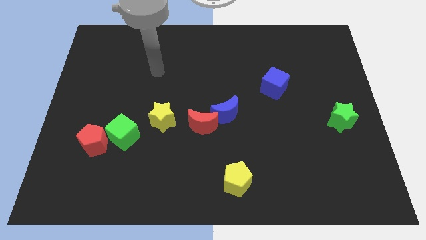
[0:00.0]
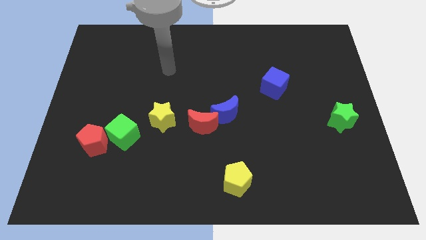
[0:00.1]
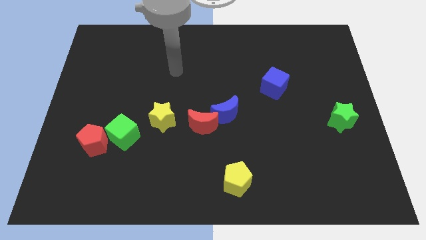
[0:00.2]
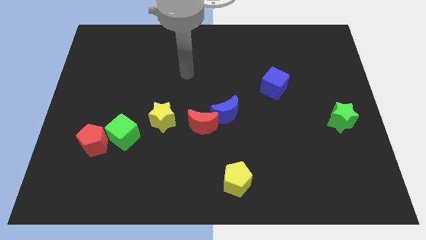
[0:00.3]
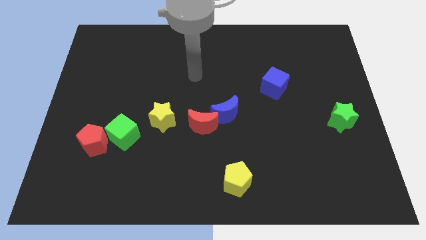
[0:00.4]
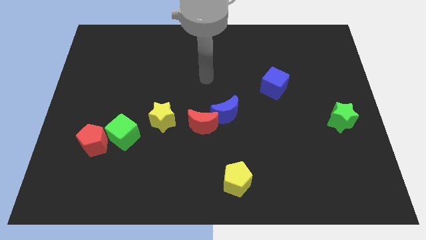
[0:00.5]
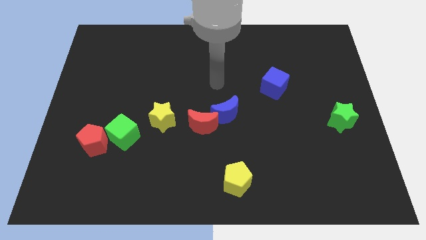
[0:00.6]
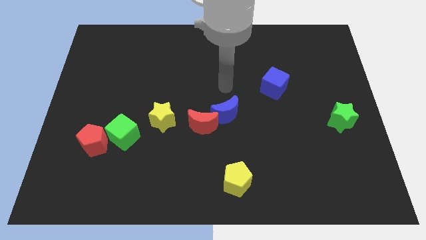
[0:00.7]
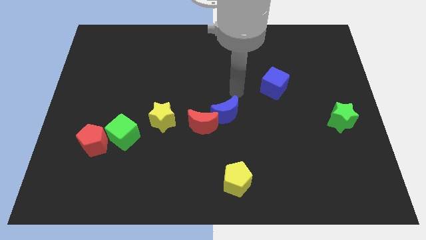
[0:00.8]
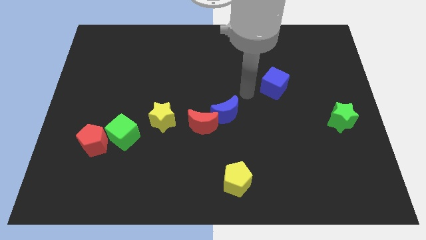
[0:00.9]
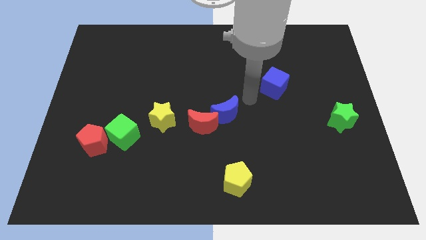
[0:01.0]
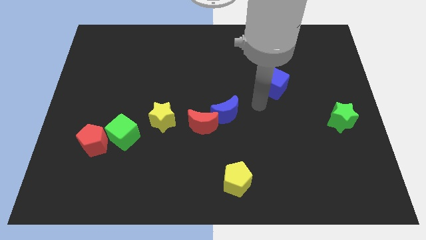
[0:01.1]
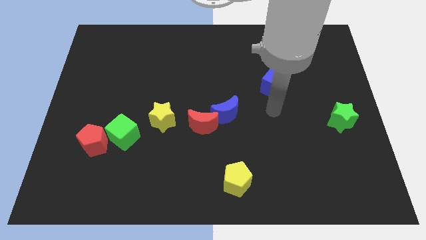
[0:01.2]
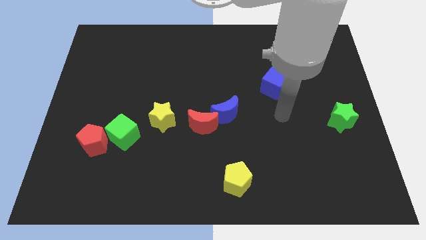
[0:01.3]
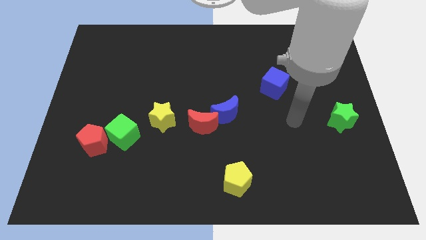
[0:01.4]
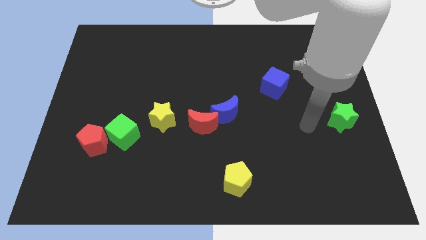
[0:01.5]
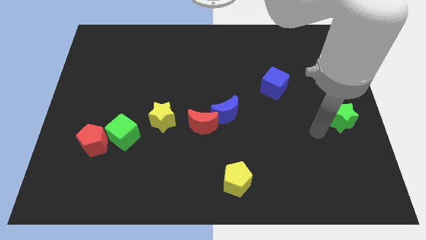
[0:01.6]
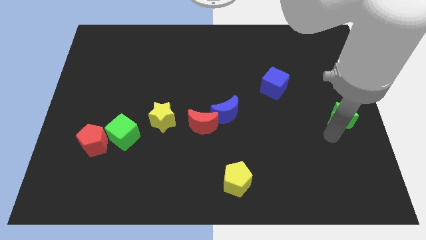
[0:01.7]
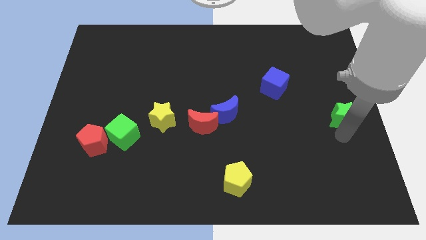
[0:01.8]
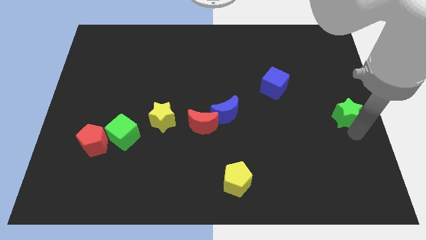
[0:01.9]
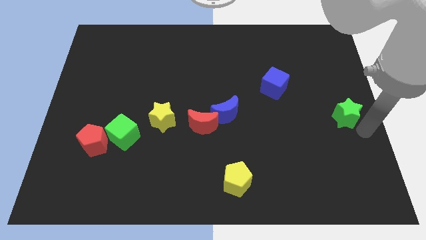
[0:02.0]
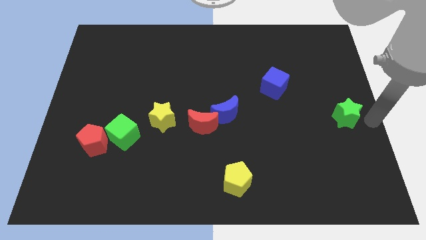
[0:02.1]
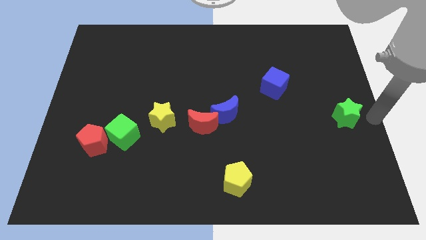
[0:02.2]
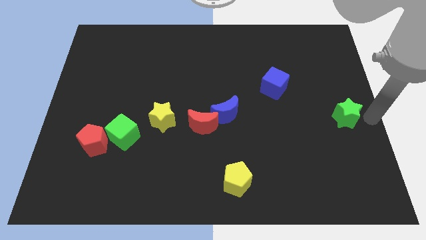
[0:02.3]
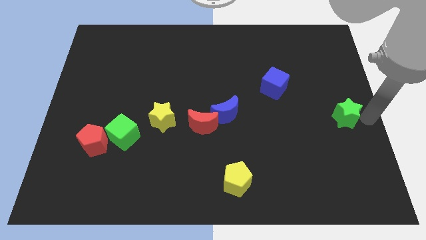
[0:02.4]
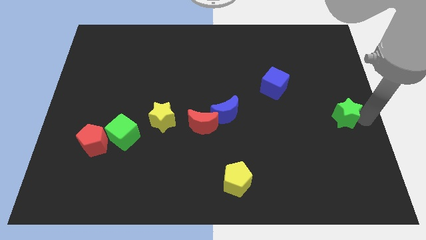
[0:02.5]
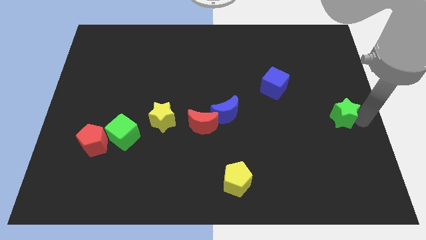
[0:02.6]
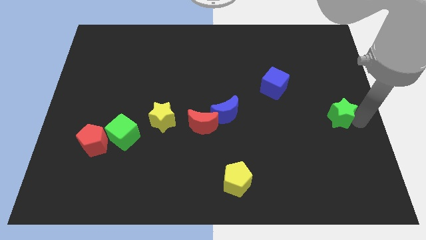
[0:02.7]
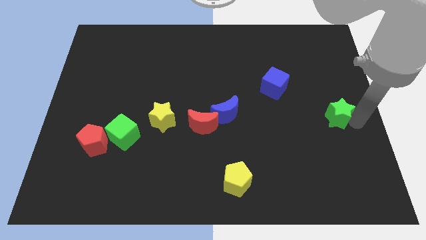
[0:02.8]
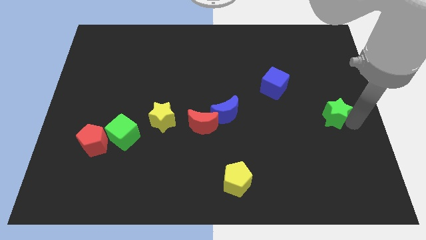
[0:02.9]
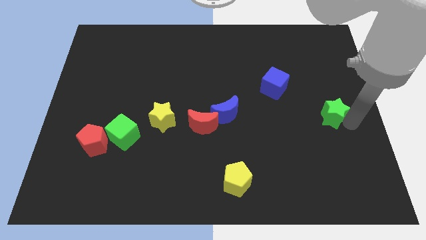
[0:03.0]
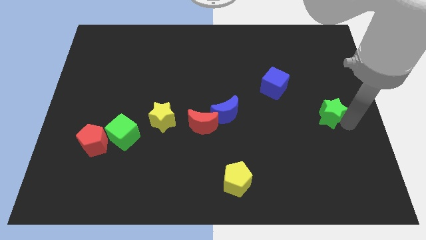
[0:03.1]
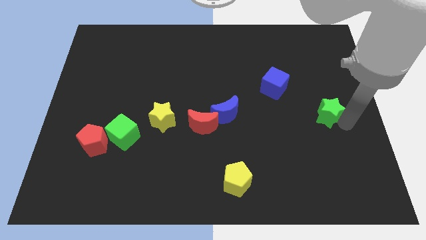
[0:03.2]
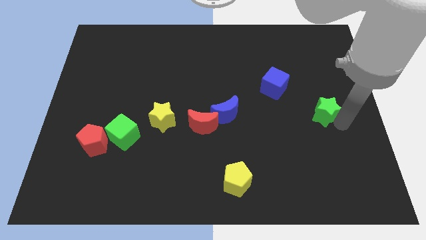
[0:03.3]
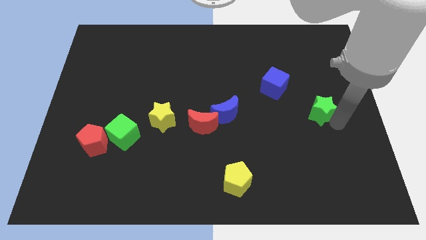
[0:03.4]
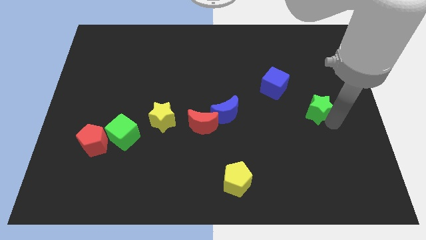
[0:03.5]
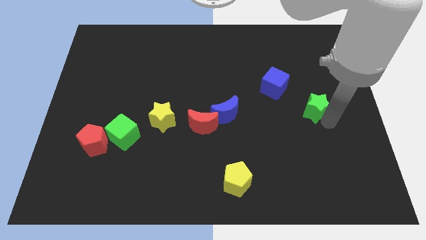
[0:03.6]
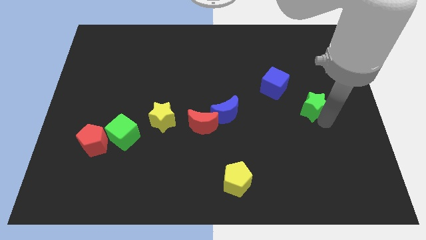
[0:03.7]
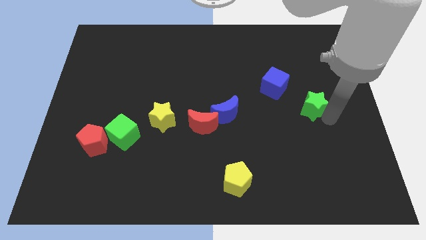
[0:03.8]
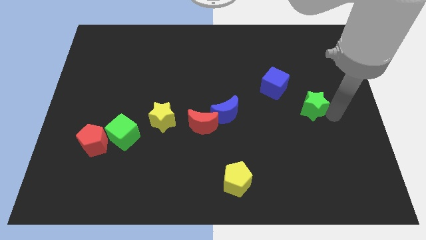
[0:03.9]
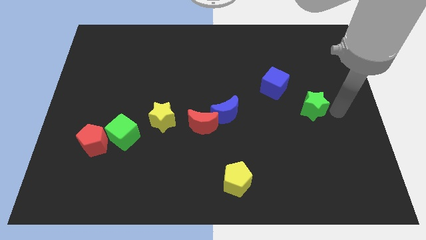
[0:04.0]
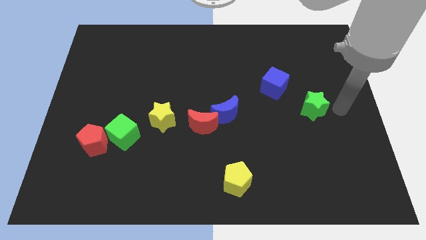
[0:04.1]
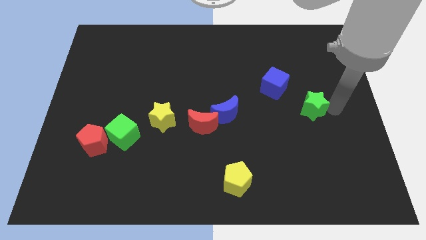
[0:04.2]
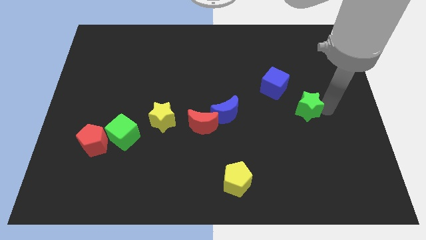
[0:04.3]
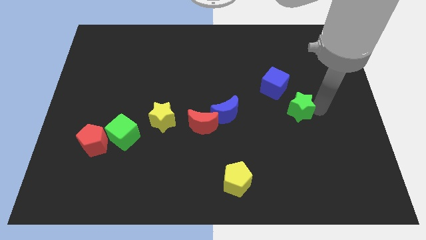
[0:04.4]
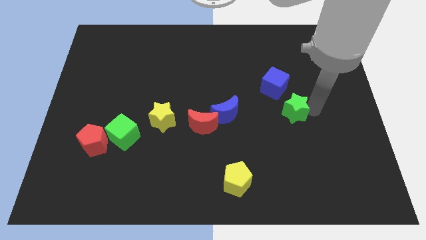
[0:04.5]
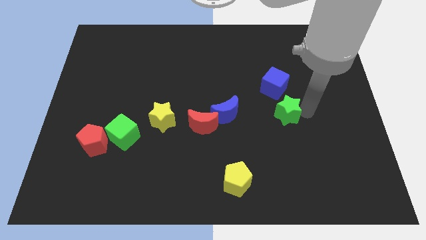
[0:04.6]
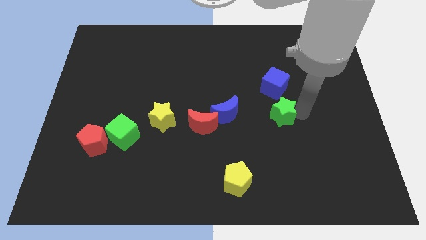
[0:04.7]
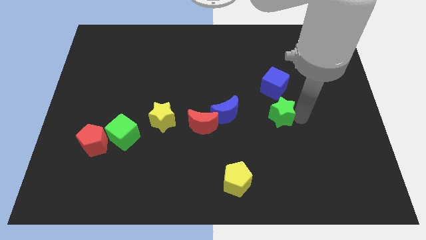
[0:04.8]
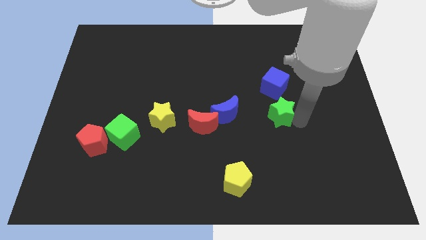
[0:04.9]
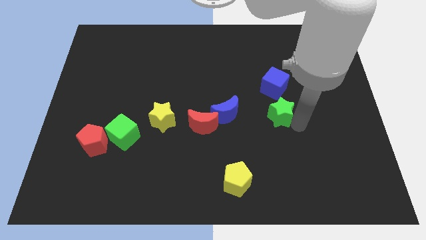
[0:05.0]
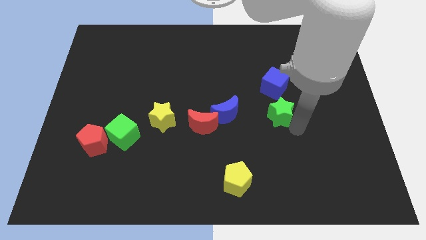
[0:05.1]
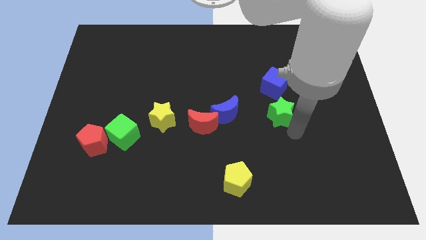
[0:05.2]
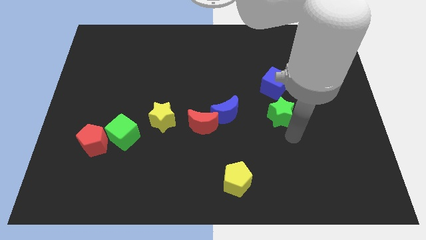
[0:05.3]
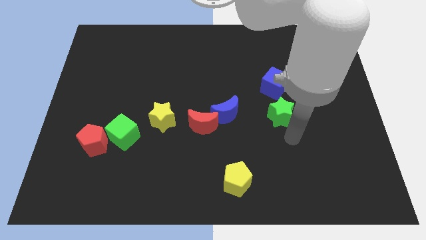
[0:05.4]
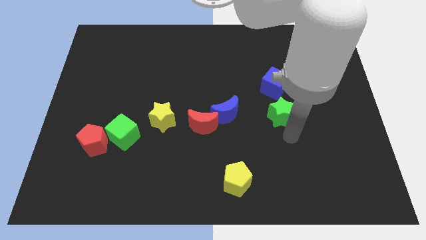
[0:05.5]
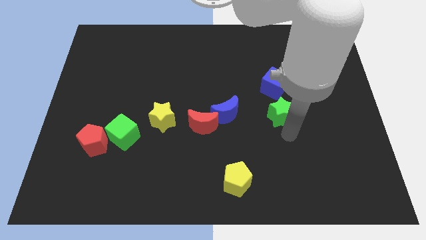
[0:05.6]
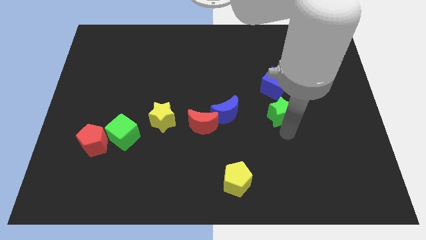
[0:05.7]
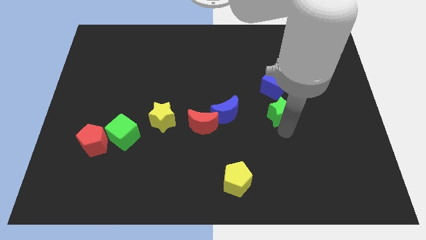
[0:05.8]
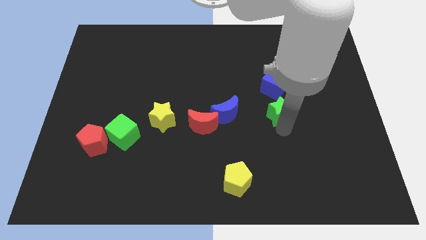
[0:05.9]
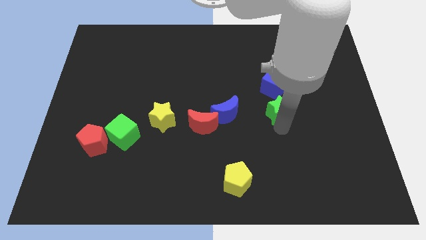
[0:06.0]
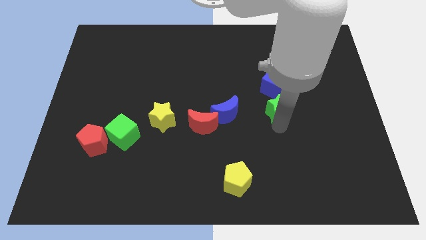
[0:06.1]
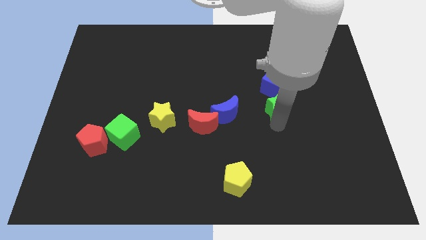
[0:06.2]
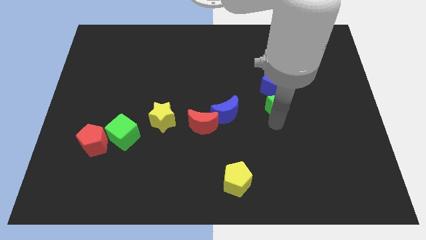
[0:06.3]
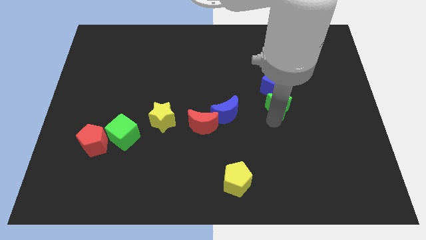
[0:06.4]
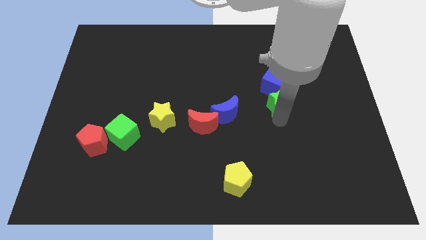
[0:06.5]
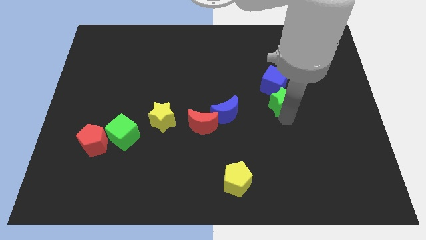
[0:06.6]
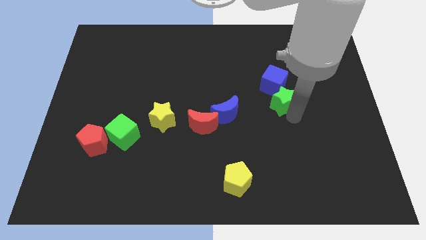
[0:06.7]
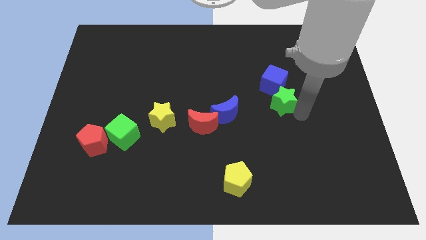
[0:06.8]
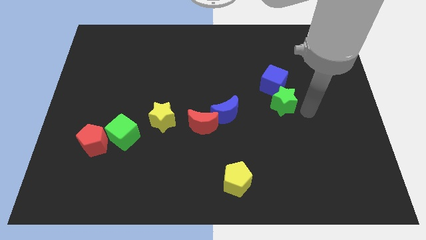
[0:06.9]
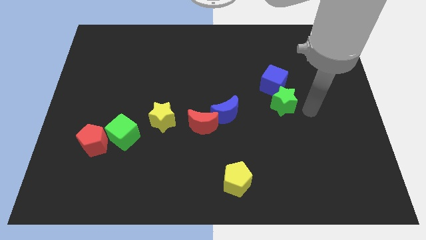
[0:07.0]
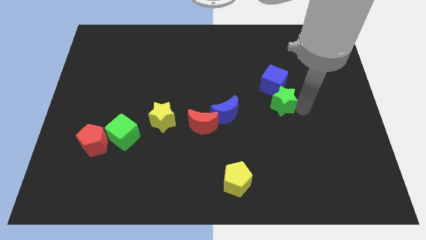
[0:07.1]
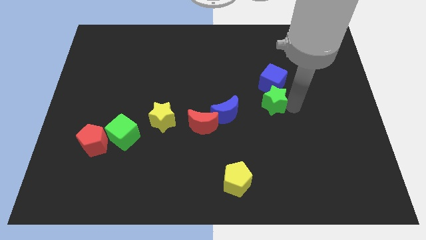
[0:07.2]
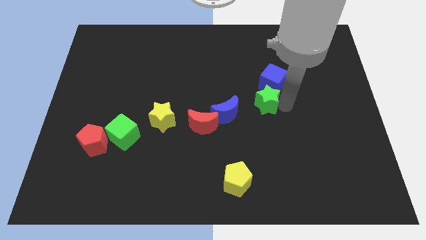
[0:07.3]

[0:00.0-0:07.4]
put the green star to the top right of the blue moon
